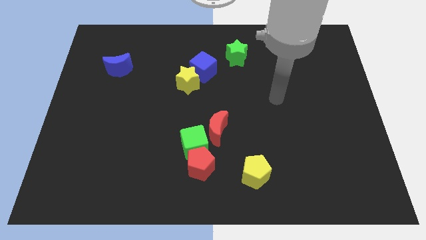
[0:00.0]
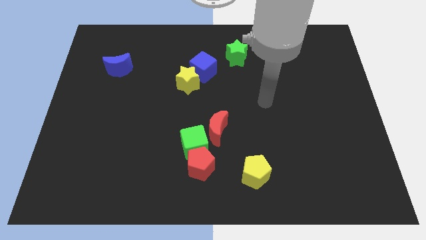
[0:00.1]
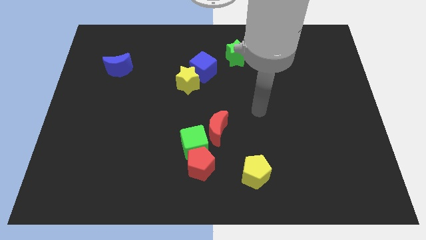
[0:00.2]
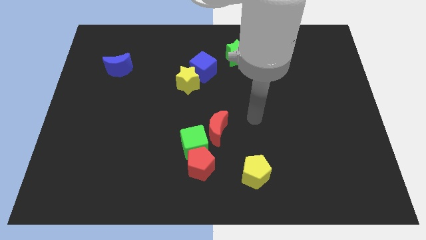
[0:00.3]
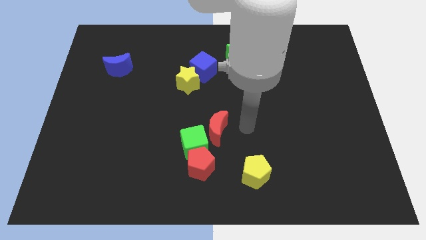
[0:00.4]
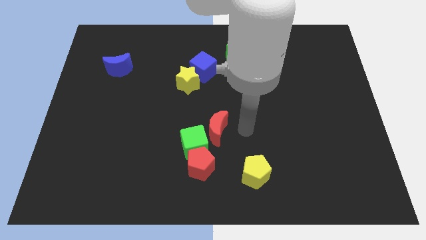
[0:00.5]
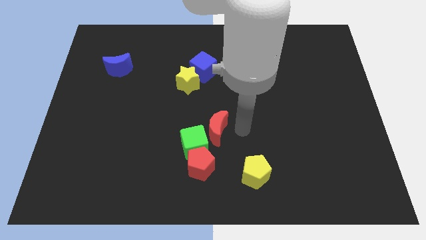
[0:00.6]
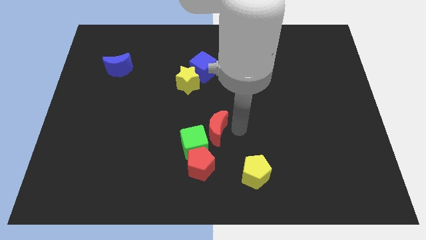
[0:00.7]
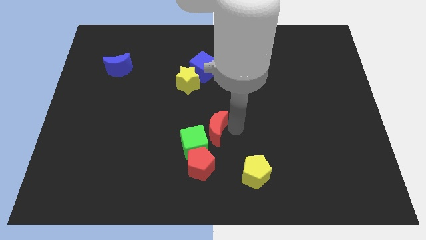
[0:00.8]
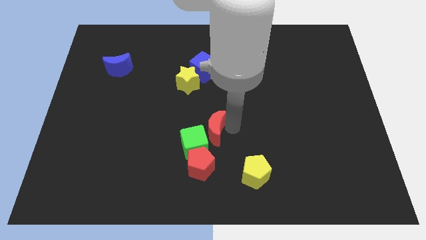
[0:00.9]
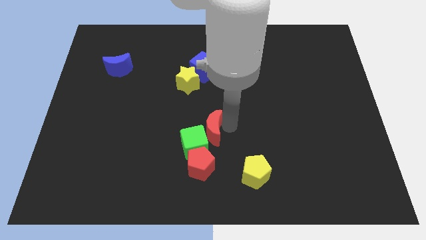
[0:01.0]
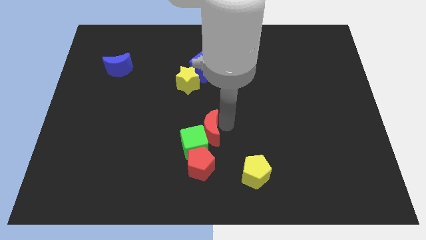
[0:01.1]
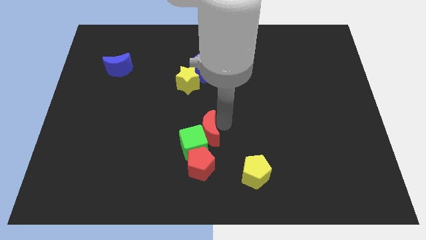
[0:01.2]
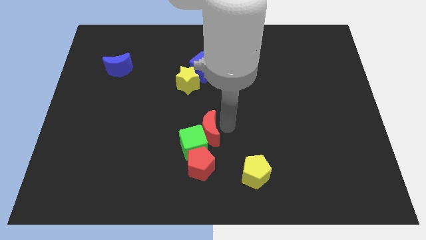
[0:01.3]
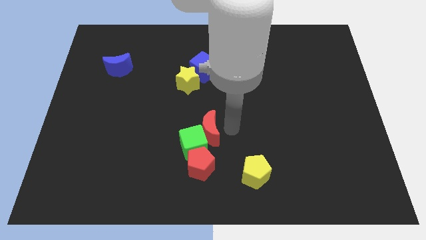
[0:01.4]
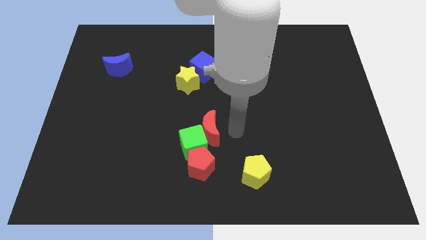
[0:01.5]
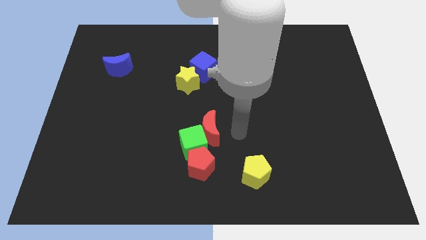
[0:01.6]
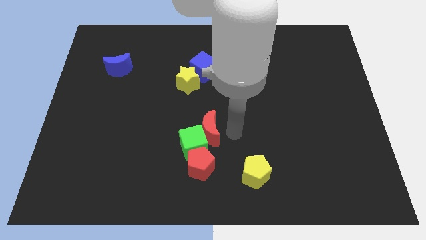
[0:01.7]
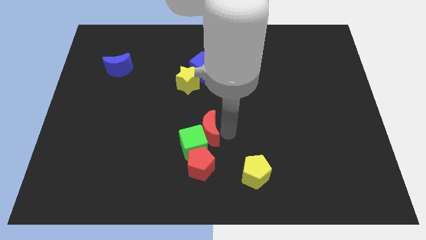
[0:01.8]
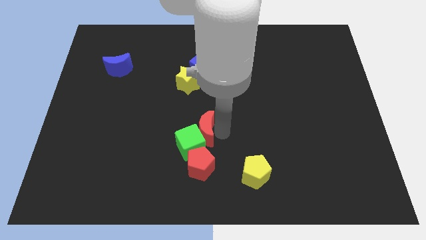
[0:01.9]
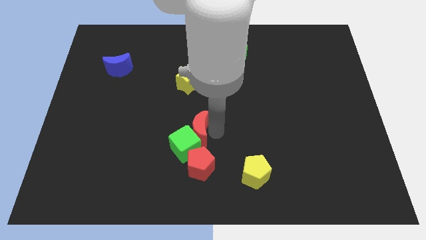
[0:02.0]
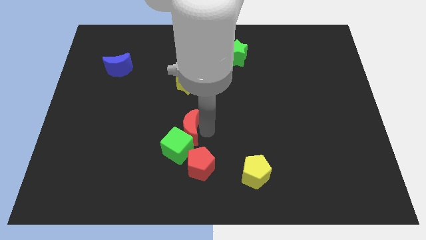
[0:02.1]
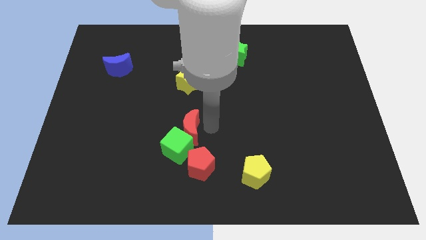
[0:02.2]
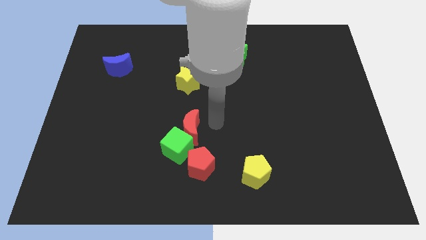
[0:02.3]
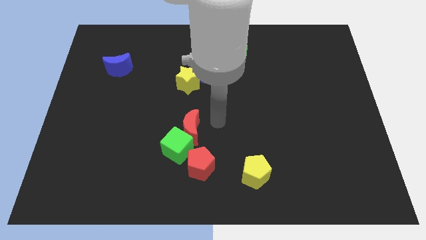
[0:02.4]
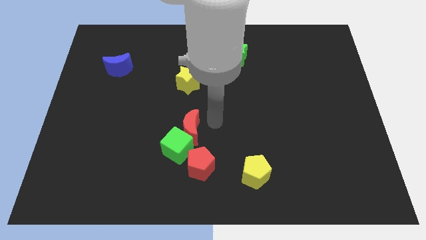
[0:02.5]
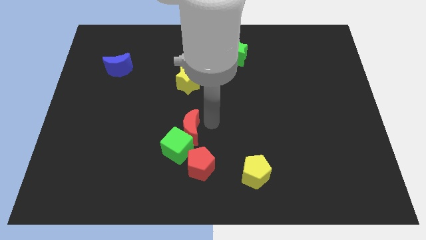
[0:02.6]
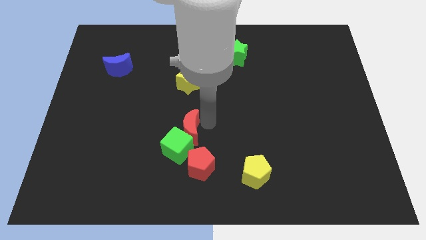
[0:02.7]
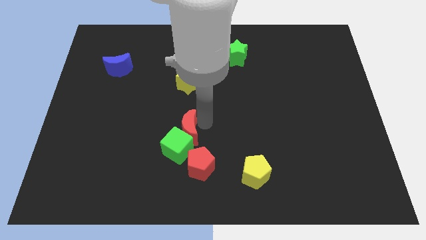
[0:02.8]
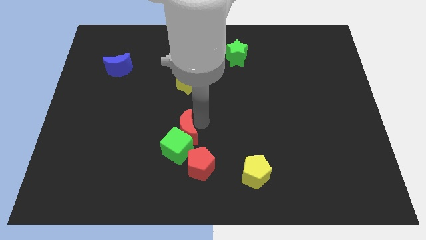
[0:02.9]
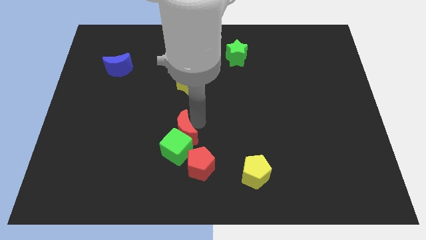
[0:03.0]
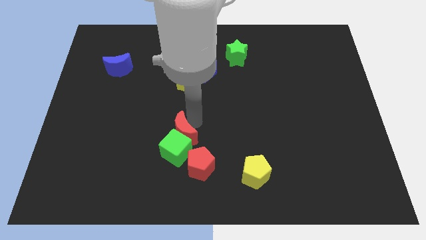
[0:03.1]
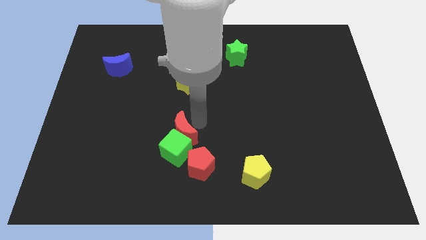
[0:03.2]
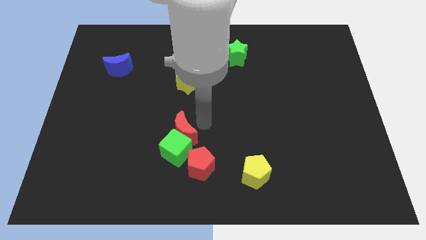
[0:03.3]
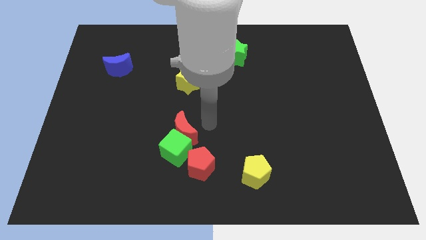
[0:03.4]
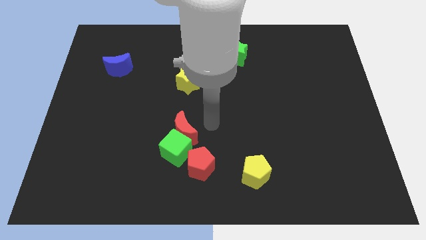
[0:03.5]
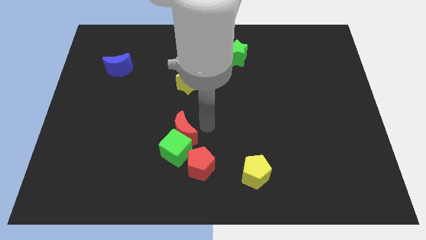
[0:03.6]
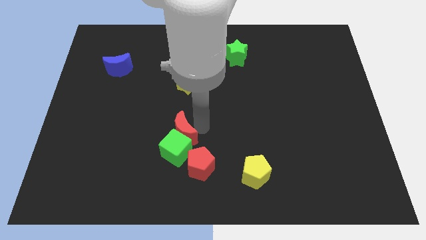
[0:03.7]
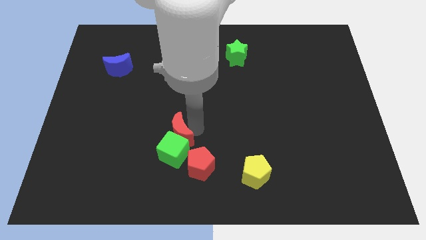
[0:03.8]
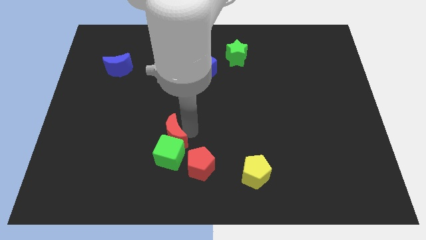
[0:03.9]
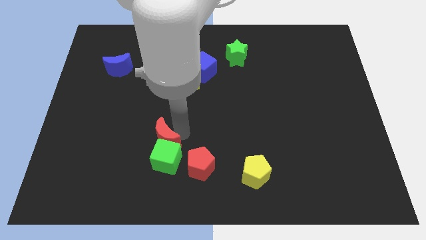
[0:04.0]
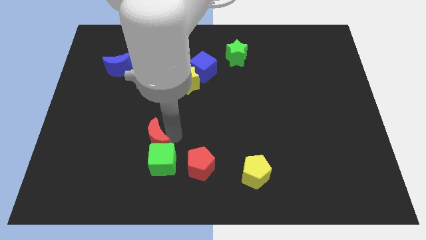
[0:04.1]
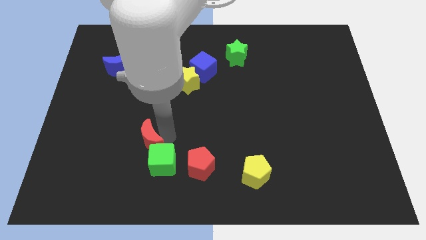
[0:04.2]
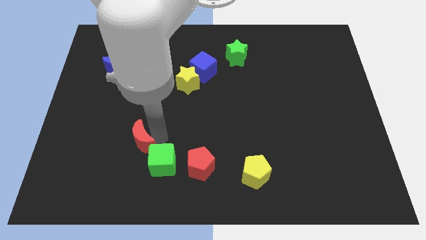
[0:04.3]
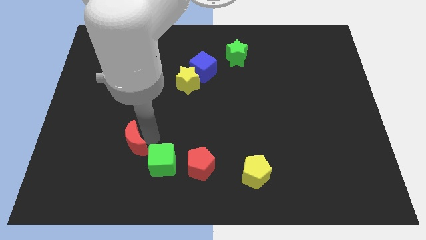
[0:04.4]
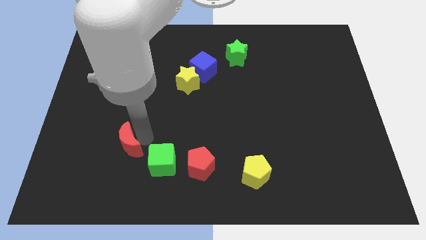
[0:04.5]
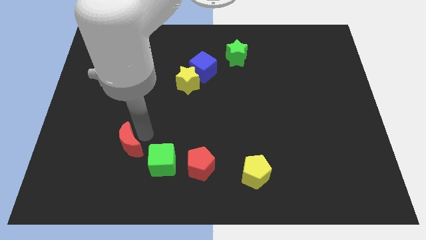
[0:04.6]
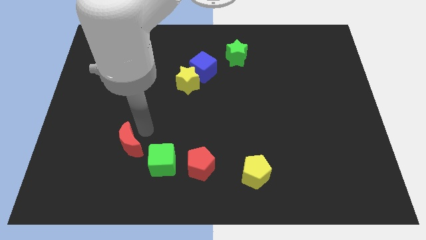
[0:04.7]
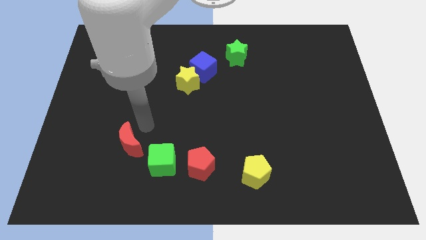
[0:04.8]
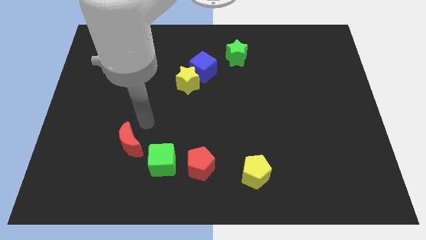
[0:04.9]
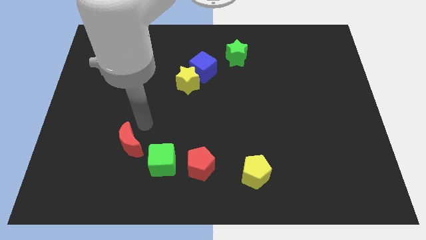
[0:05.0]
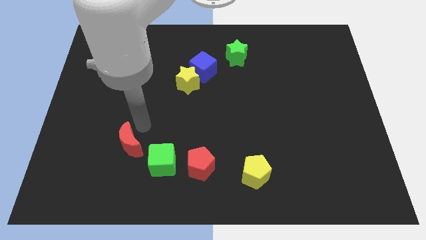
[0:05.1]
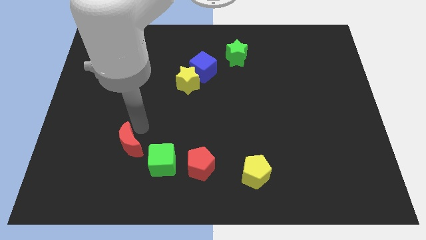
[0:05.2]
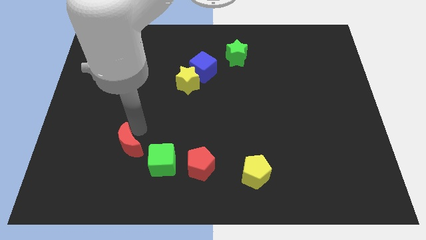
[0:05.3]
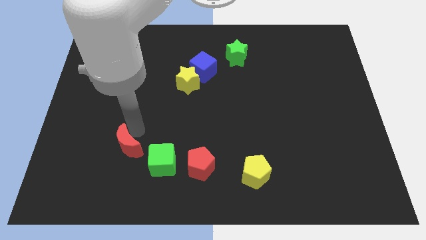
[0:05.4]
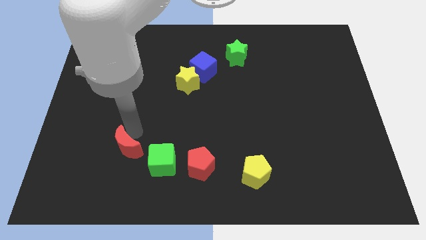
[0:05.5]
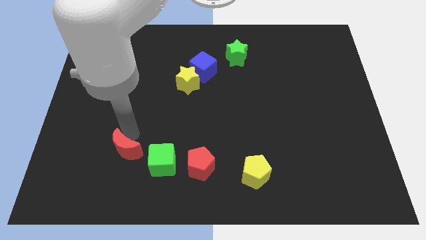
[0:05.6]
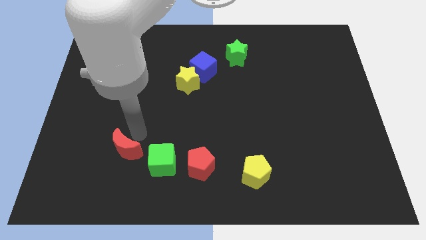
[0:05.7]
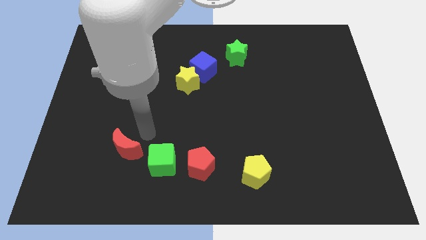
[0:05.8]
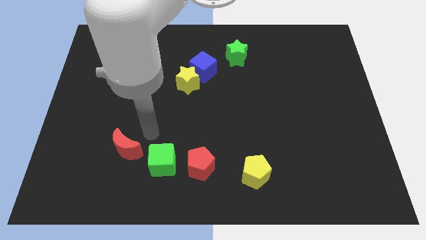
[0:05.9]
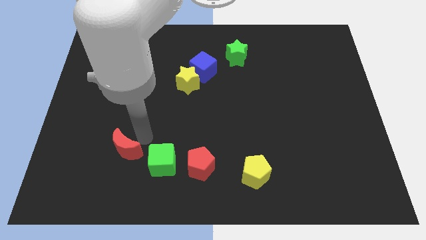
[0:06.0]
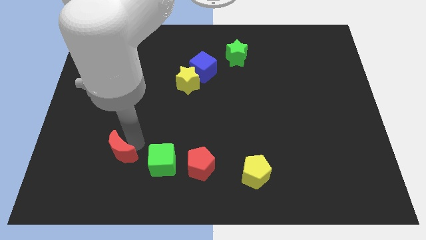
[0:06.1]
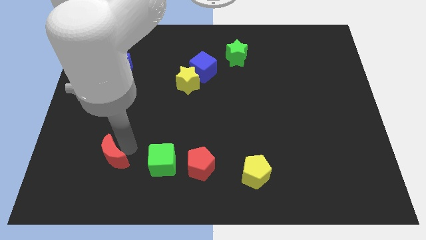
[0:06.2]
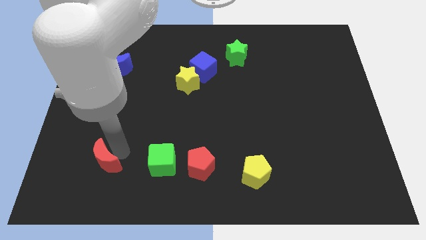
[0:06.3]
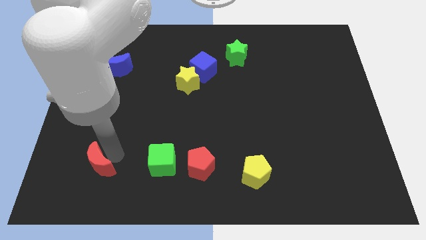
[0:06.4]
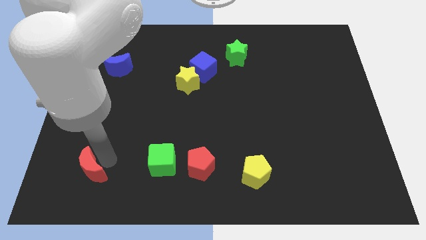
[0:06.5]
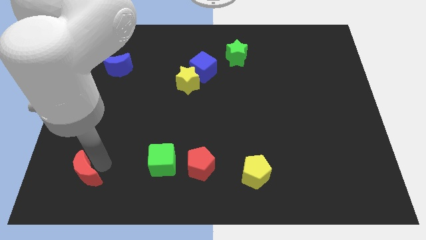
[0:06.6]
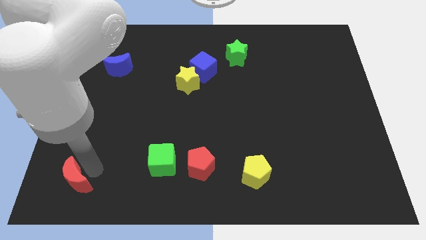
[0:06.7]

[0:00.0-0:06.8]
move the red moon to the bottom left
